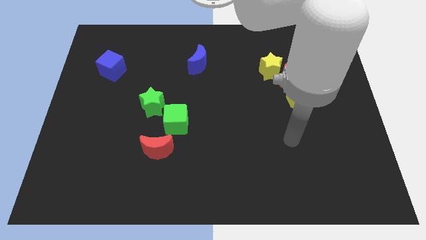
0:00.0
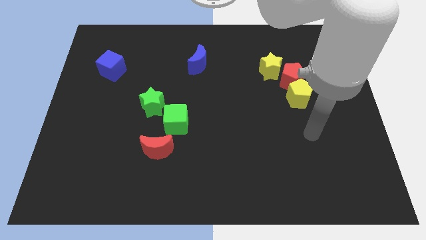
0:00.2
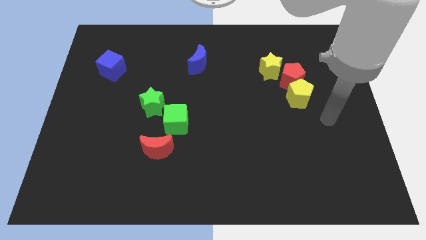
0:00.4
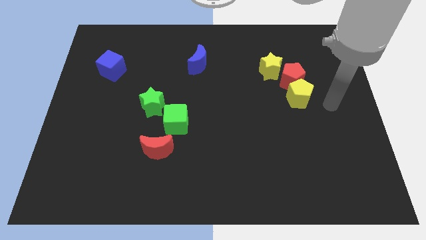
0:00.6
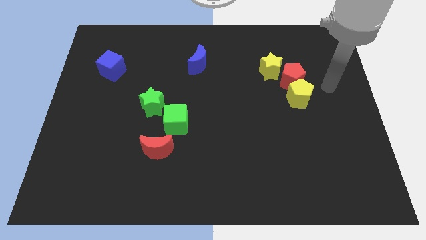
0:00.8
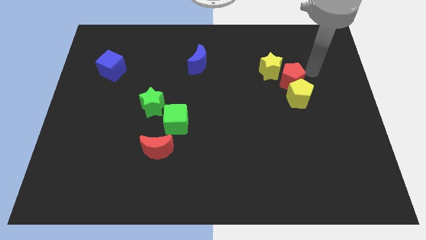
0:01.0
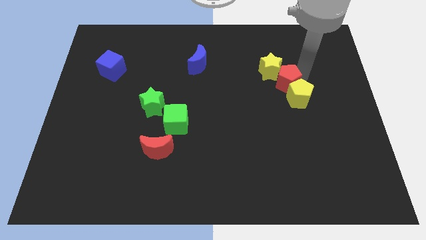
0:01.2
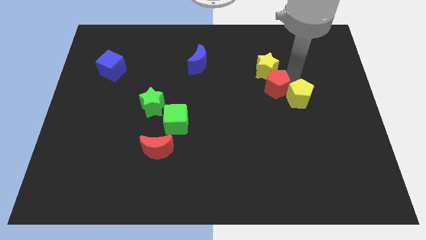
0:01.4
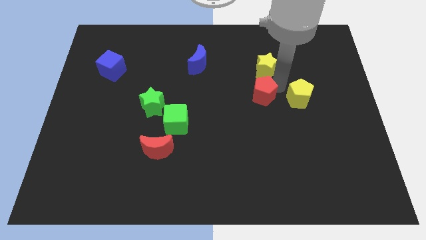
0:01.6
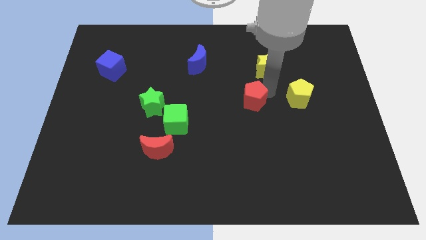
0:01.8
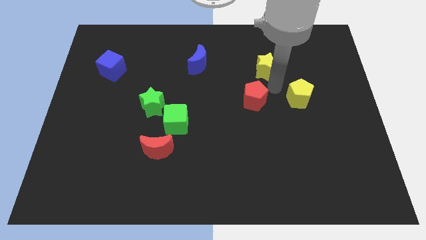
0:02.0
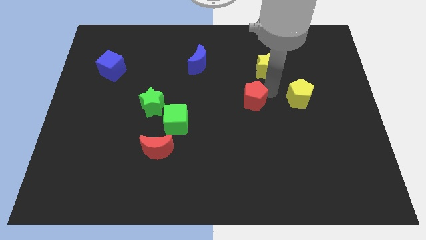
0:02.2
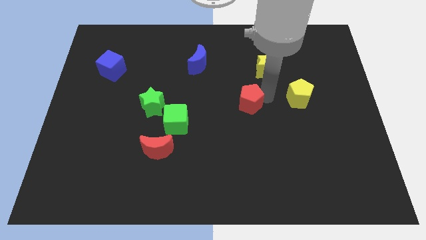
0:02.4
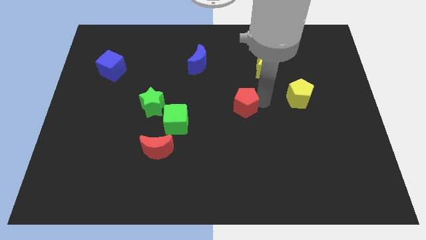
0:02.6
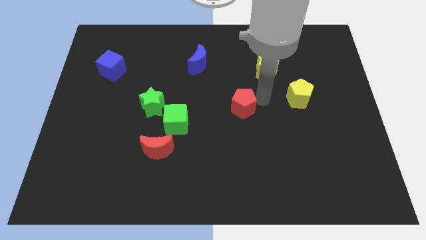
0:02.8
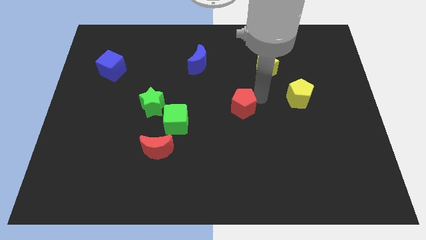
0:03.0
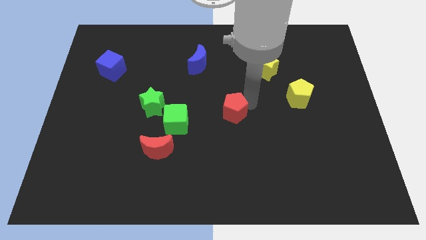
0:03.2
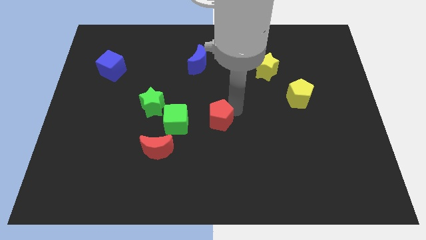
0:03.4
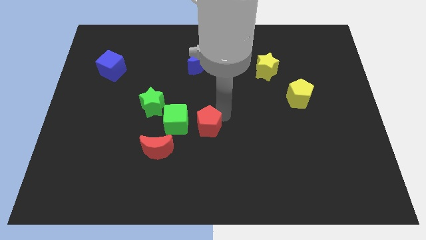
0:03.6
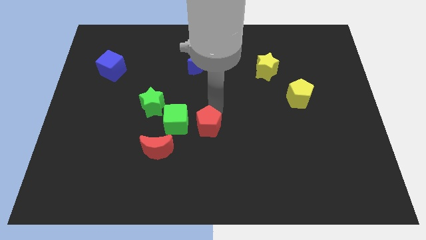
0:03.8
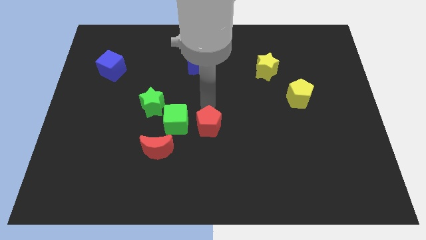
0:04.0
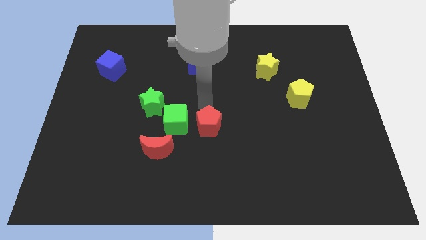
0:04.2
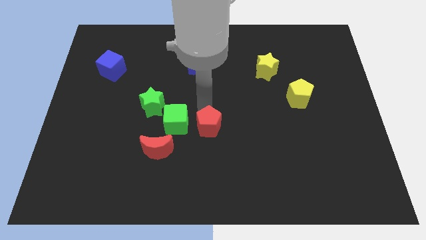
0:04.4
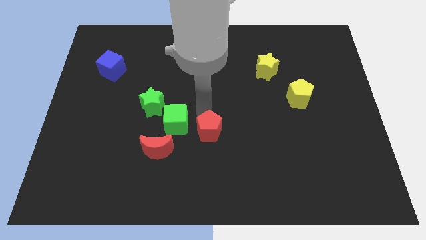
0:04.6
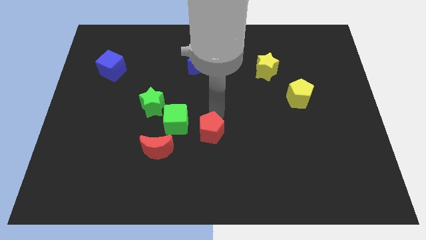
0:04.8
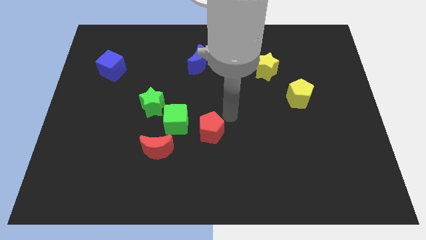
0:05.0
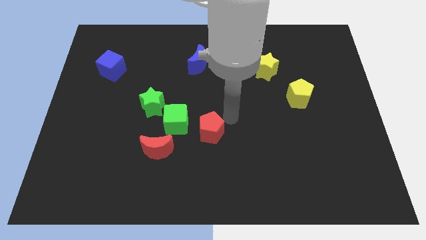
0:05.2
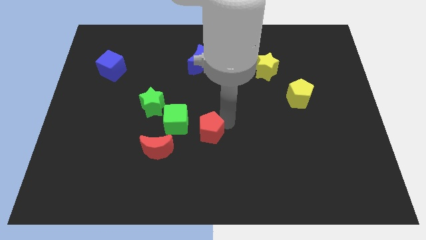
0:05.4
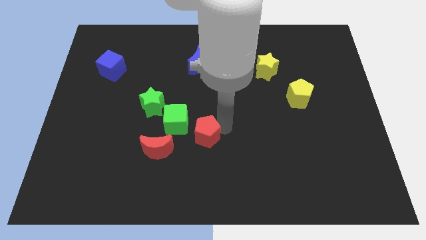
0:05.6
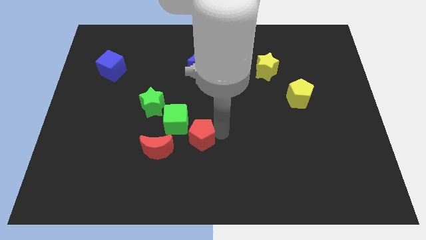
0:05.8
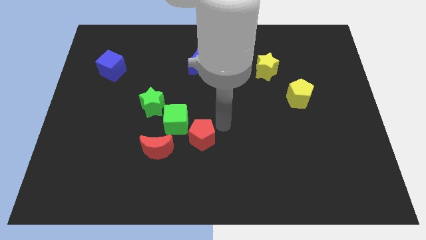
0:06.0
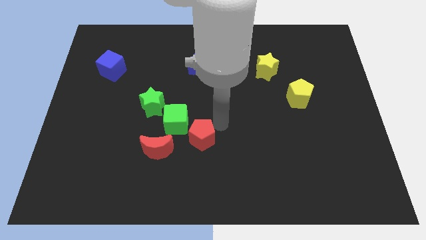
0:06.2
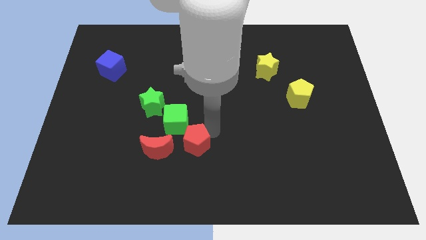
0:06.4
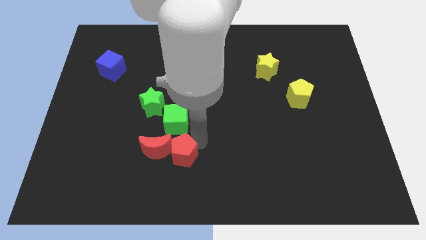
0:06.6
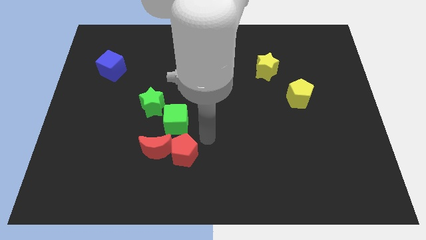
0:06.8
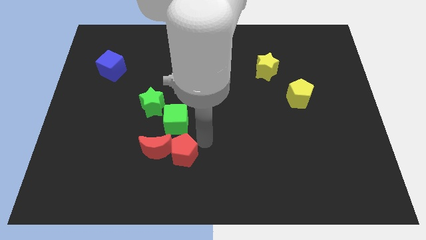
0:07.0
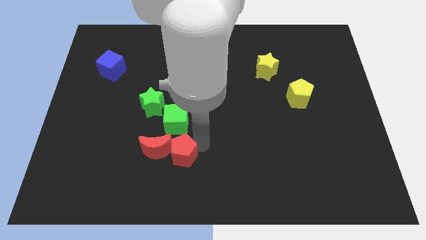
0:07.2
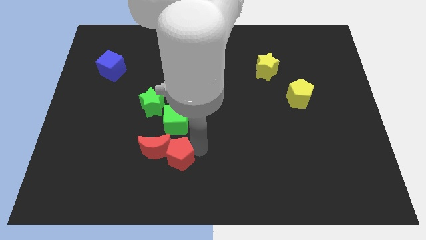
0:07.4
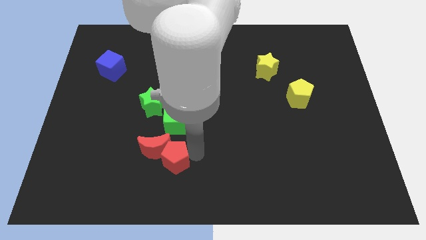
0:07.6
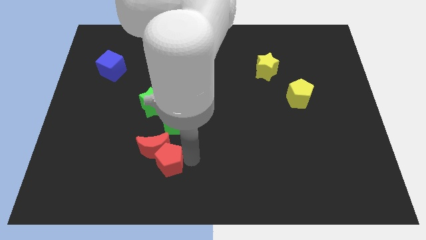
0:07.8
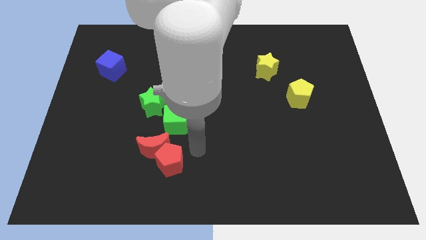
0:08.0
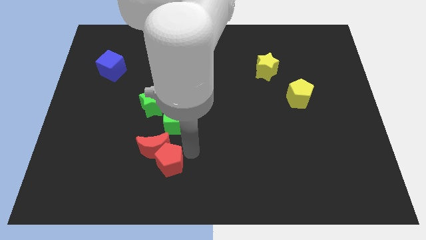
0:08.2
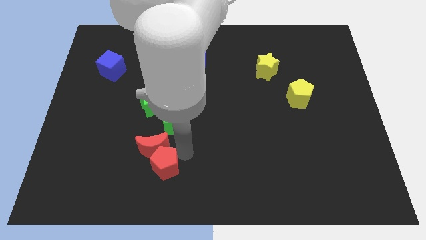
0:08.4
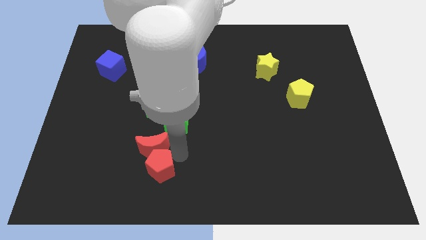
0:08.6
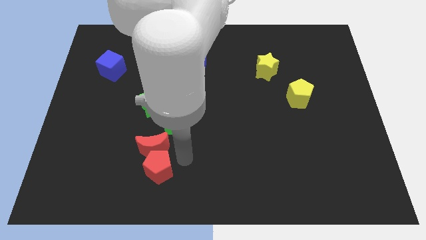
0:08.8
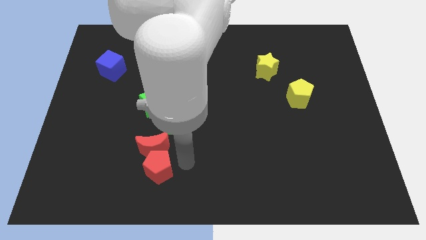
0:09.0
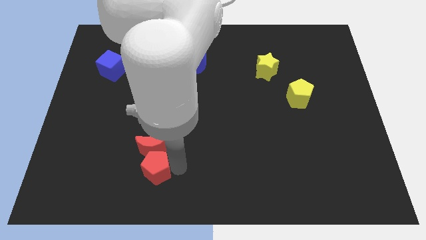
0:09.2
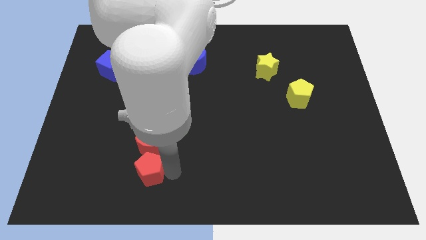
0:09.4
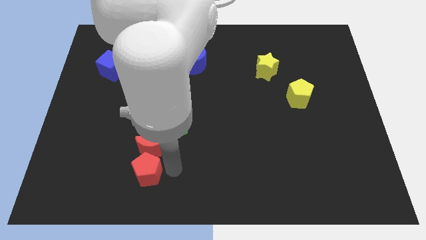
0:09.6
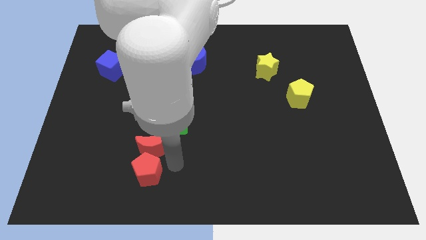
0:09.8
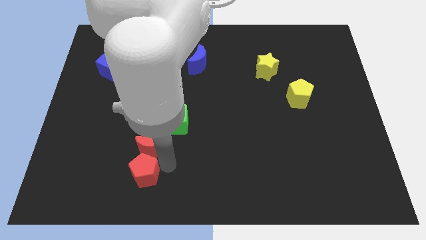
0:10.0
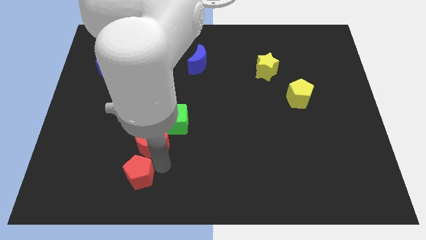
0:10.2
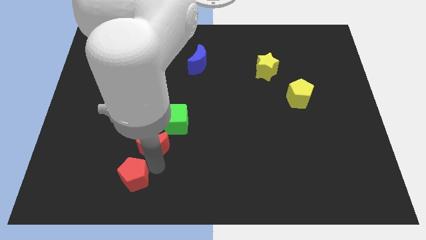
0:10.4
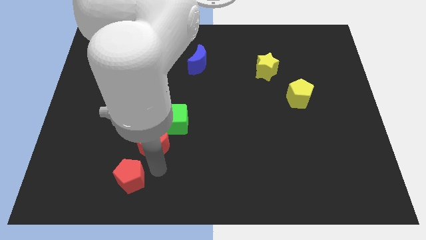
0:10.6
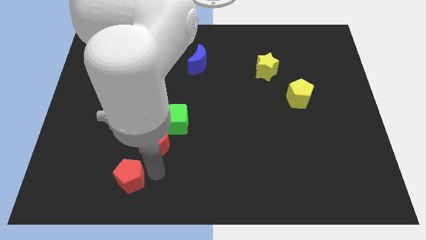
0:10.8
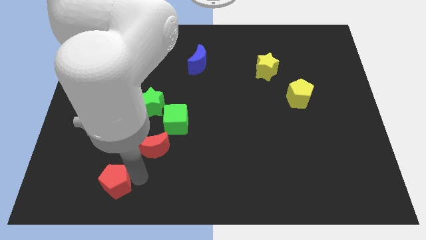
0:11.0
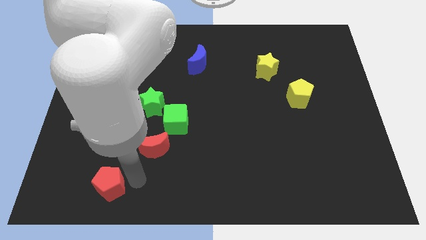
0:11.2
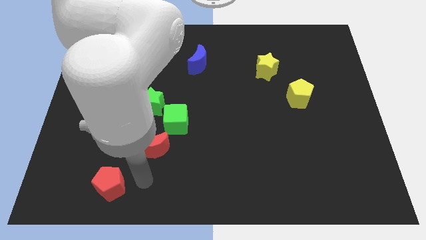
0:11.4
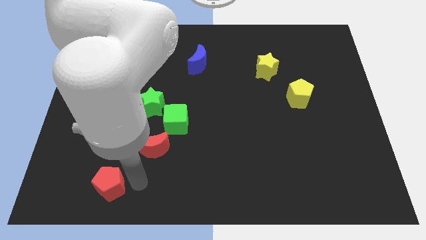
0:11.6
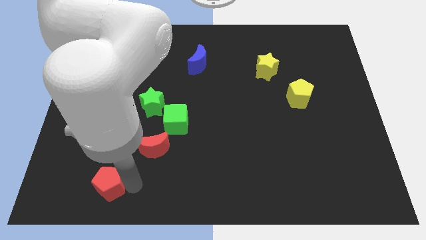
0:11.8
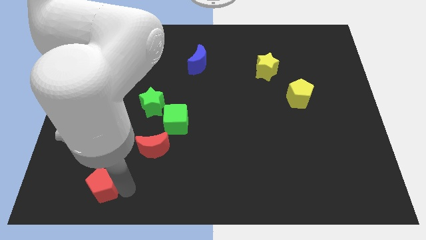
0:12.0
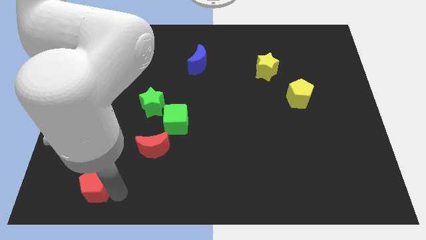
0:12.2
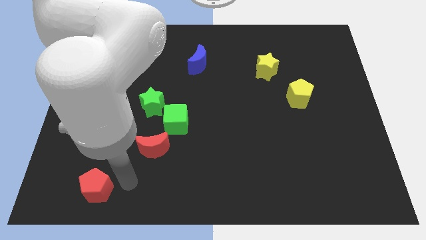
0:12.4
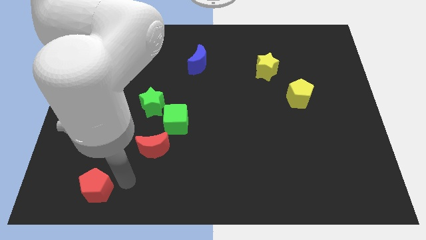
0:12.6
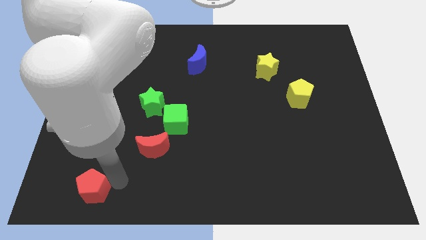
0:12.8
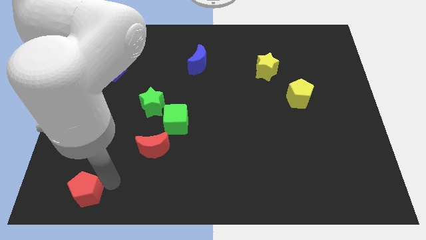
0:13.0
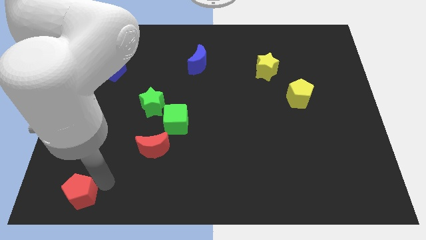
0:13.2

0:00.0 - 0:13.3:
slide the red pentagon to the bottom left corner

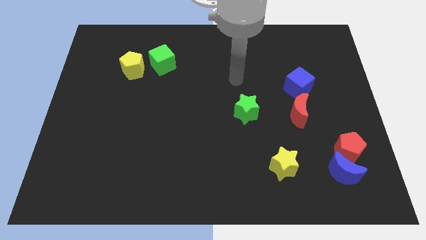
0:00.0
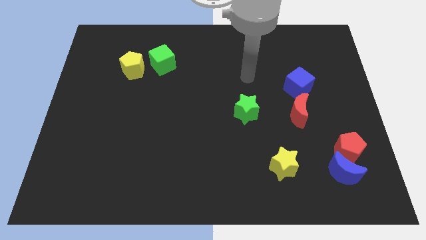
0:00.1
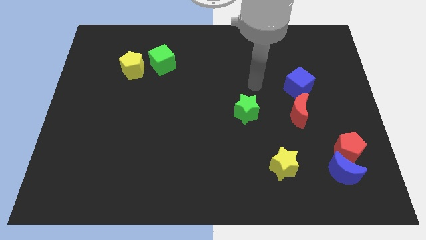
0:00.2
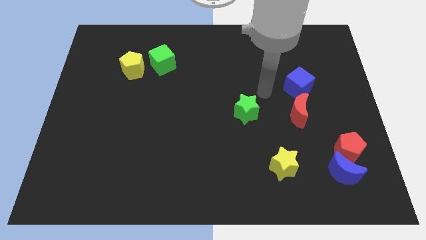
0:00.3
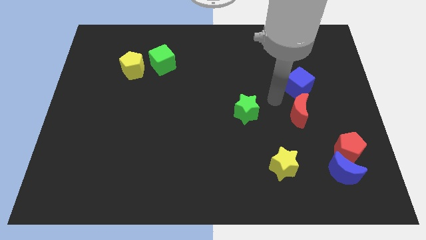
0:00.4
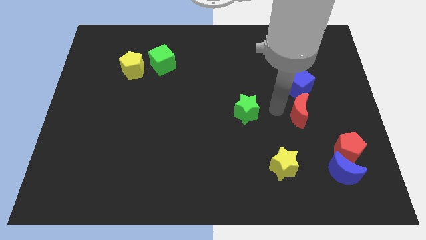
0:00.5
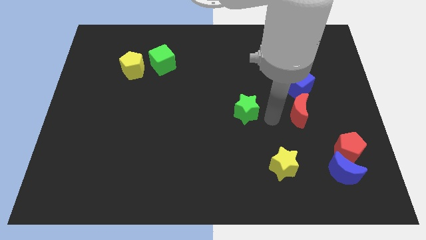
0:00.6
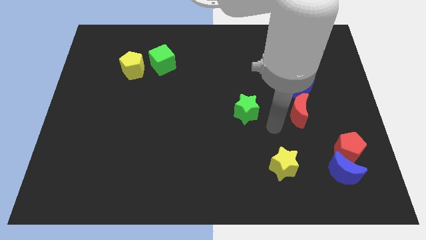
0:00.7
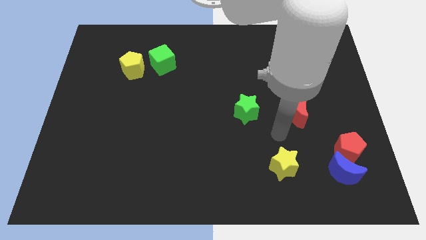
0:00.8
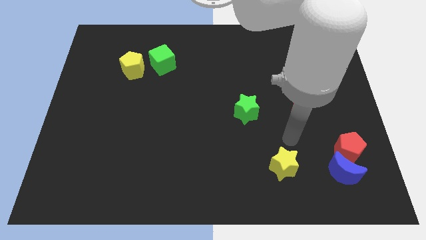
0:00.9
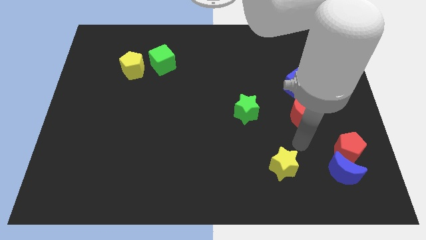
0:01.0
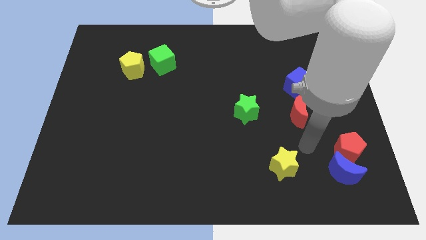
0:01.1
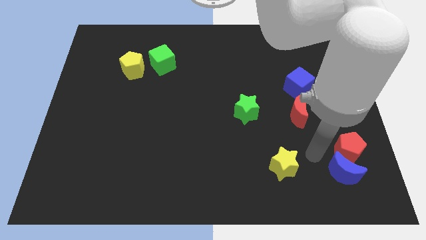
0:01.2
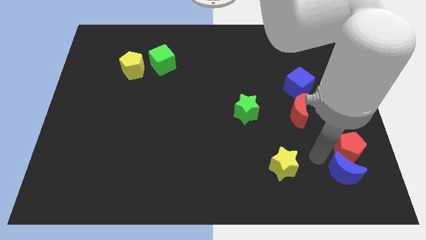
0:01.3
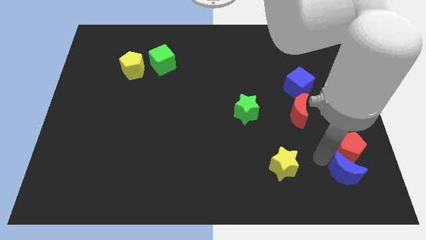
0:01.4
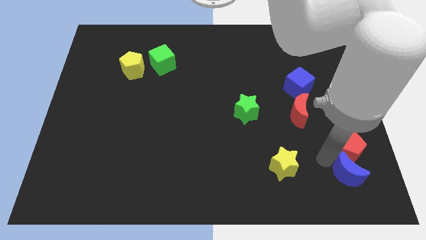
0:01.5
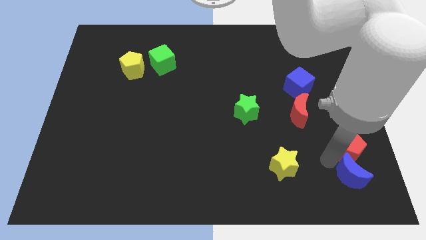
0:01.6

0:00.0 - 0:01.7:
move the blue moon to the bottom right of the board
